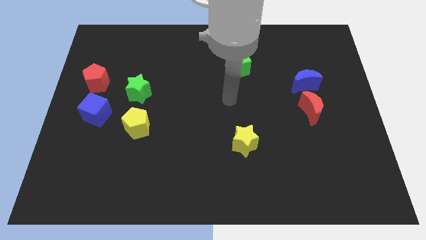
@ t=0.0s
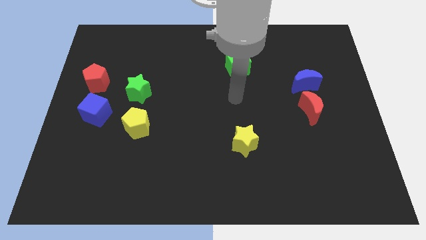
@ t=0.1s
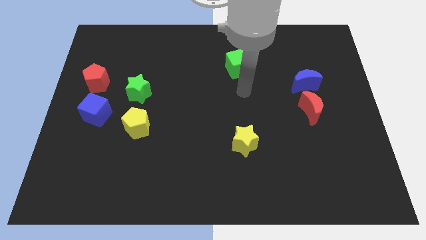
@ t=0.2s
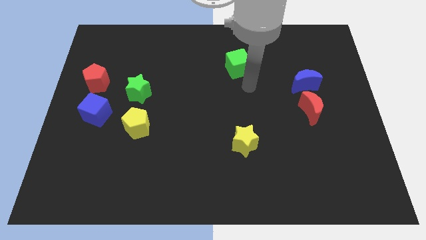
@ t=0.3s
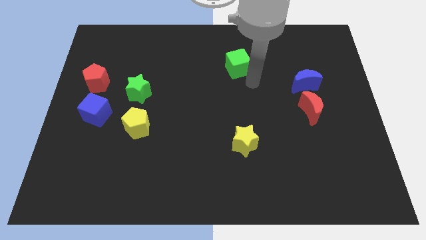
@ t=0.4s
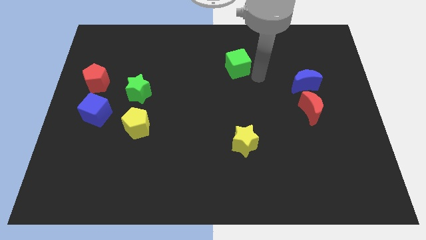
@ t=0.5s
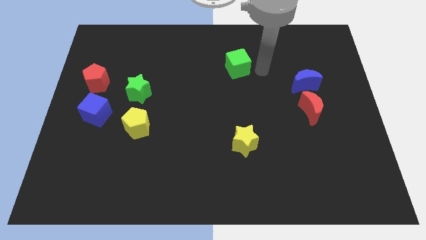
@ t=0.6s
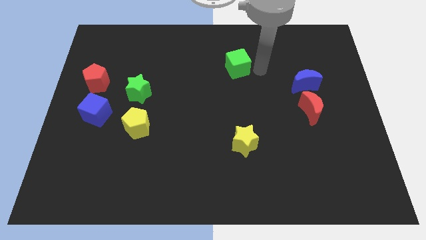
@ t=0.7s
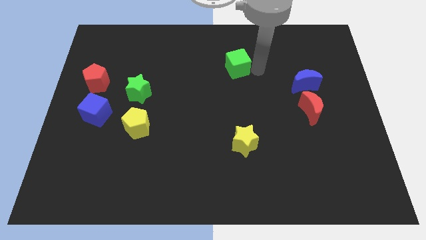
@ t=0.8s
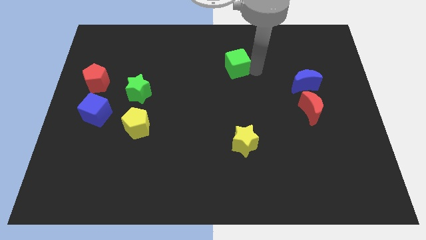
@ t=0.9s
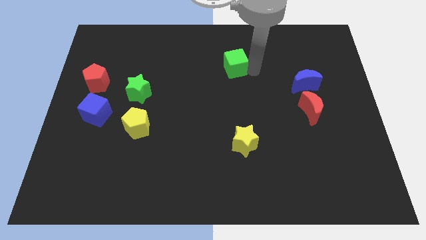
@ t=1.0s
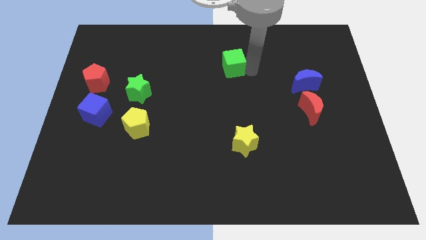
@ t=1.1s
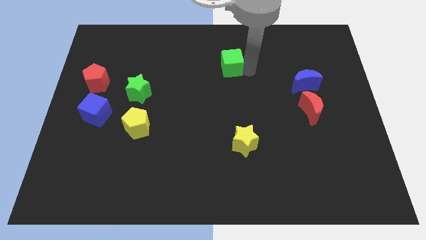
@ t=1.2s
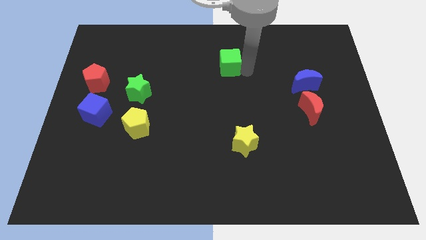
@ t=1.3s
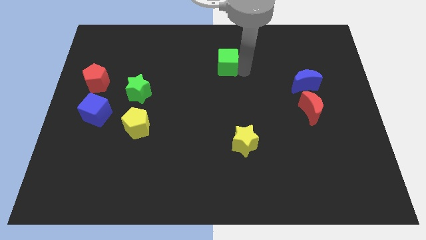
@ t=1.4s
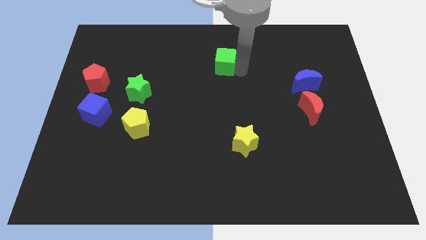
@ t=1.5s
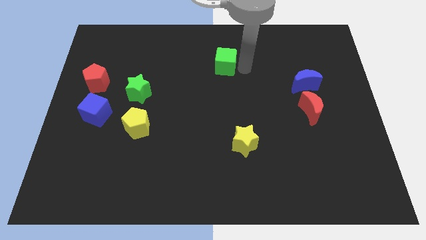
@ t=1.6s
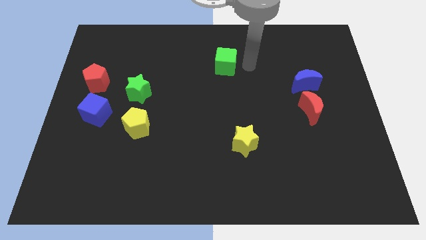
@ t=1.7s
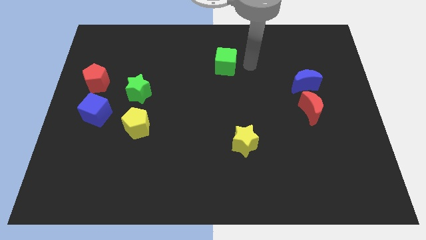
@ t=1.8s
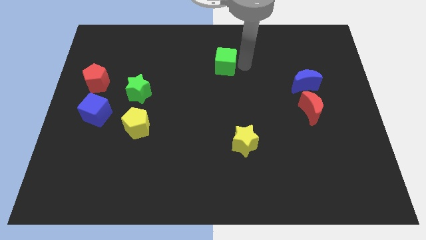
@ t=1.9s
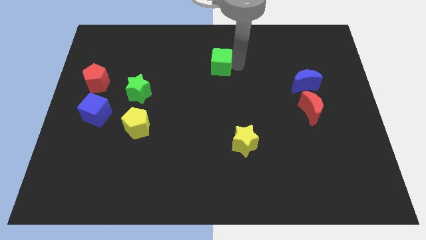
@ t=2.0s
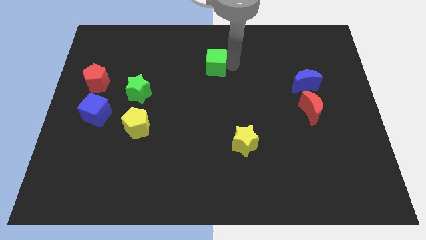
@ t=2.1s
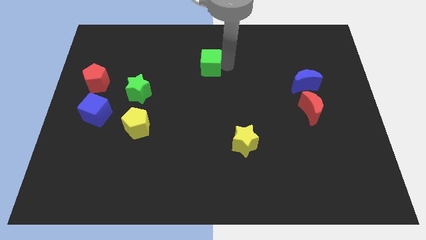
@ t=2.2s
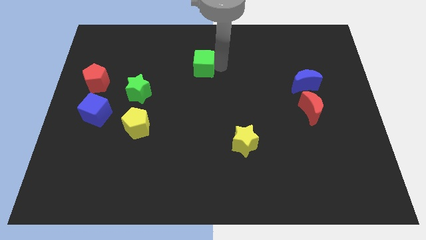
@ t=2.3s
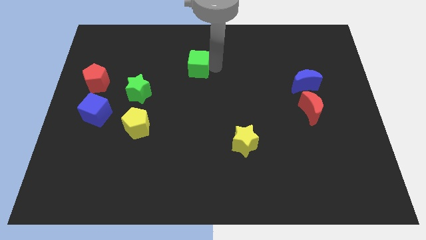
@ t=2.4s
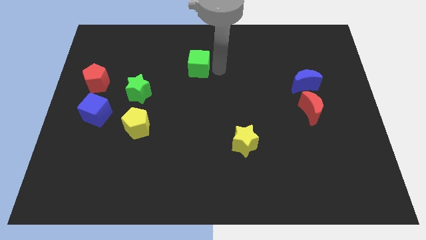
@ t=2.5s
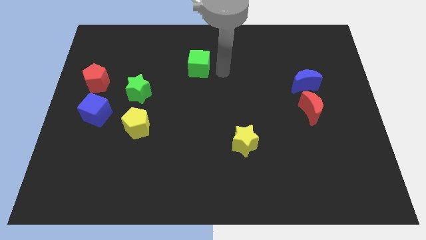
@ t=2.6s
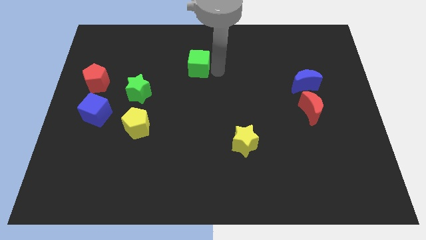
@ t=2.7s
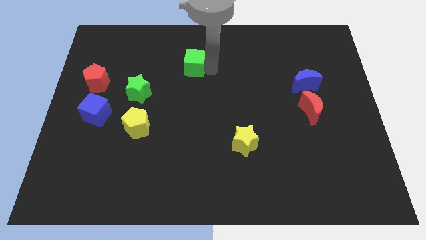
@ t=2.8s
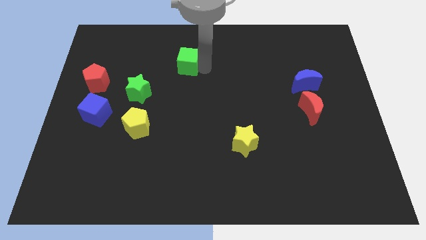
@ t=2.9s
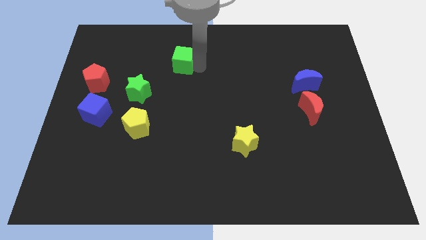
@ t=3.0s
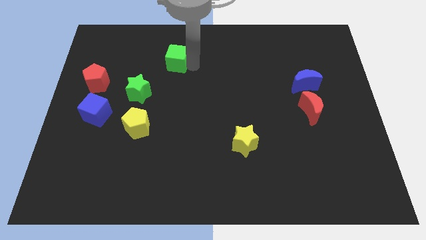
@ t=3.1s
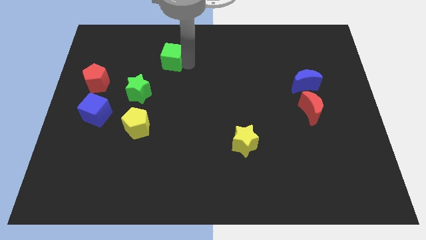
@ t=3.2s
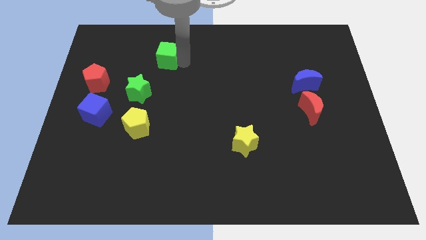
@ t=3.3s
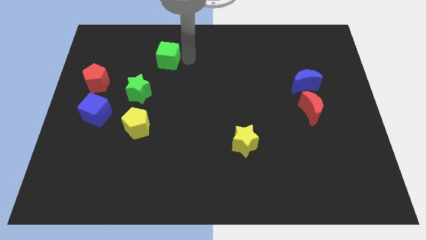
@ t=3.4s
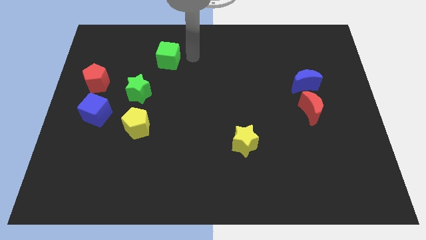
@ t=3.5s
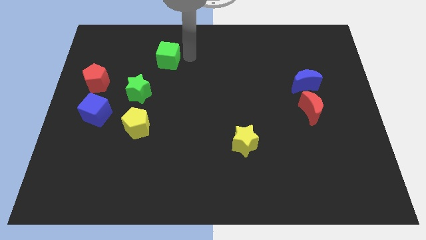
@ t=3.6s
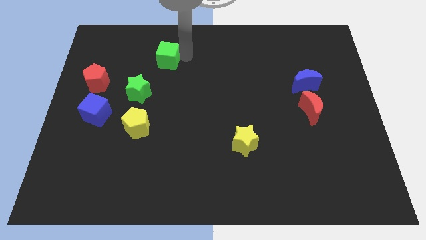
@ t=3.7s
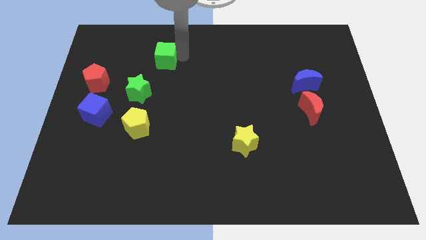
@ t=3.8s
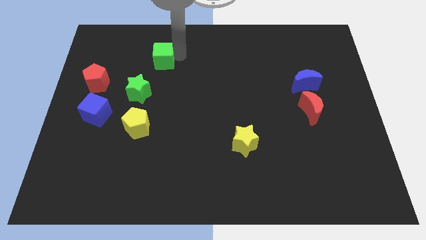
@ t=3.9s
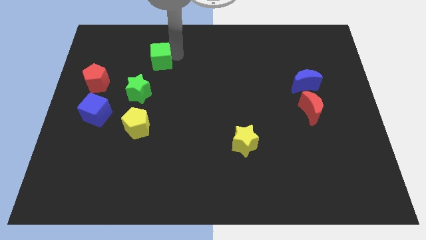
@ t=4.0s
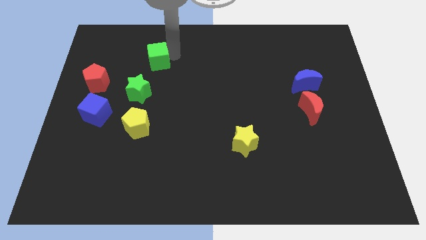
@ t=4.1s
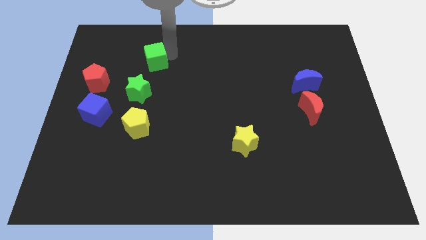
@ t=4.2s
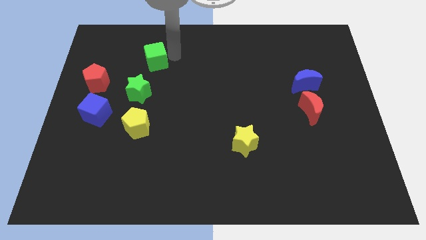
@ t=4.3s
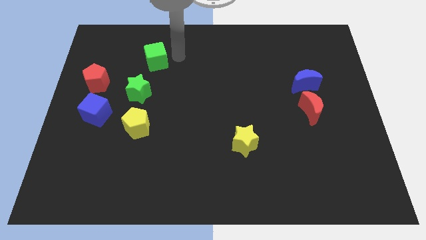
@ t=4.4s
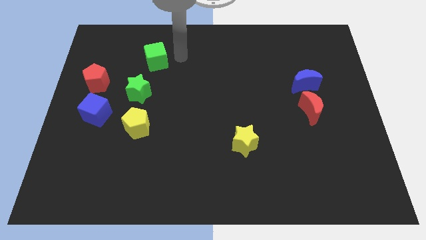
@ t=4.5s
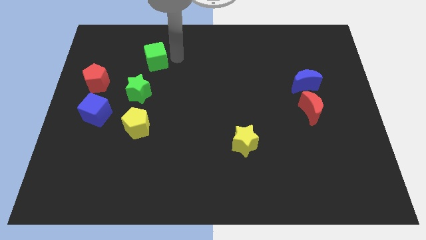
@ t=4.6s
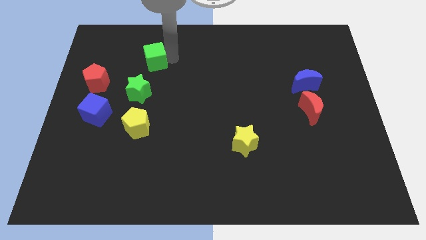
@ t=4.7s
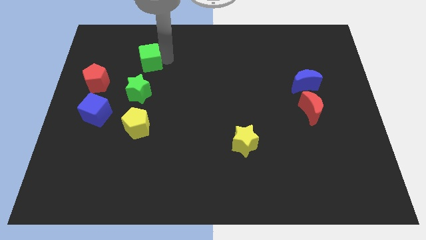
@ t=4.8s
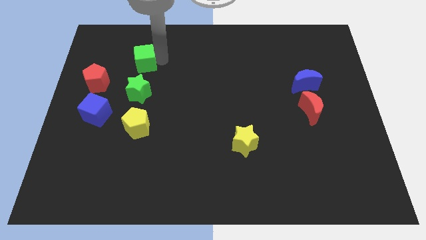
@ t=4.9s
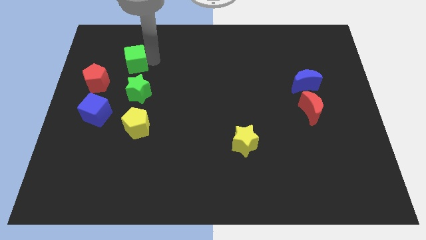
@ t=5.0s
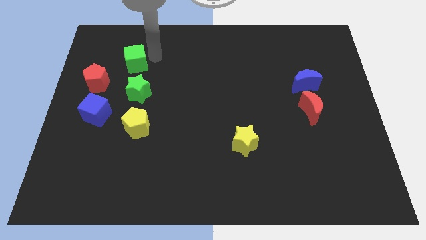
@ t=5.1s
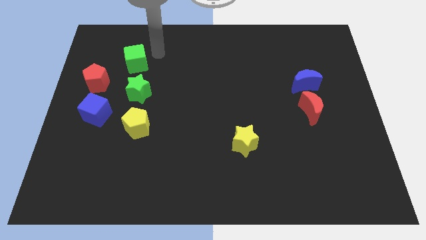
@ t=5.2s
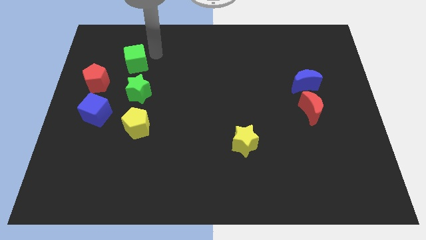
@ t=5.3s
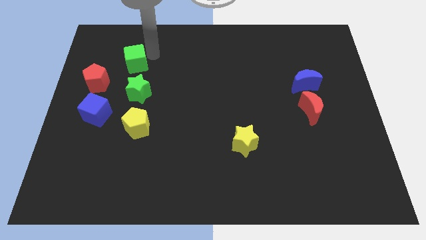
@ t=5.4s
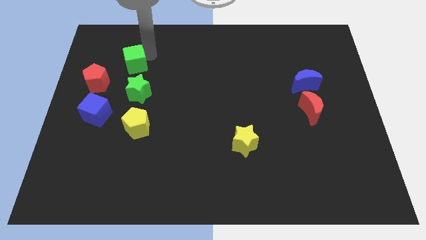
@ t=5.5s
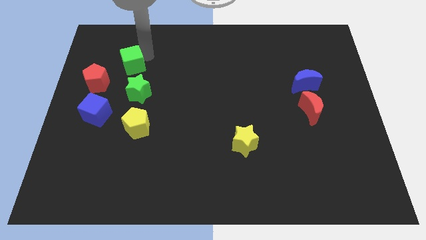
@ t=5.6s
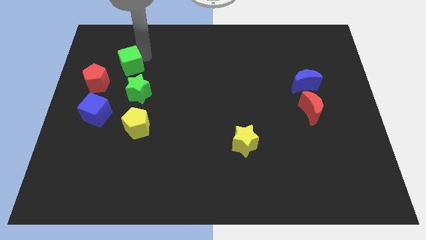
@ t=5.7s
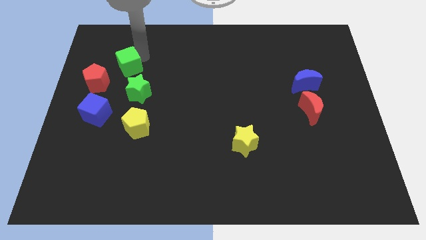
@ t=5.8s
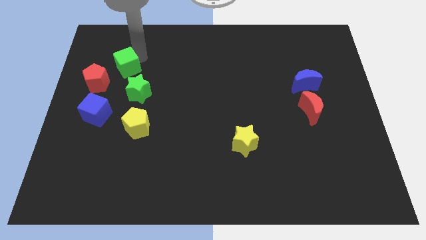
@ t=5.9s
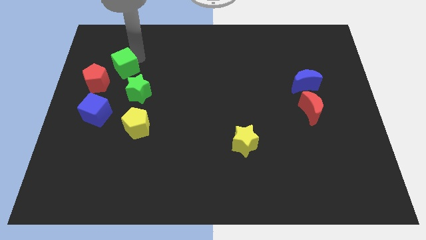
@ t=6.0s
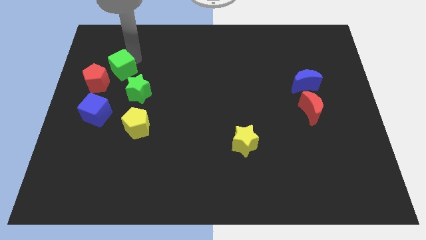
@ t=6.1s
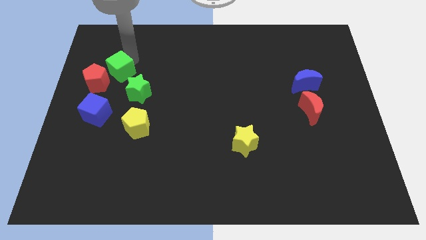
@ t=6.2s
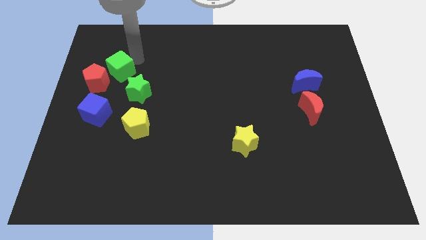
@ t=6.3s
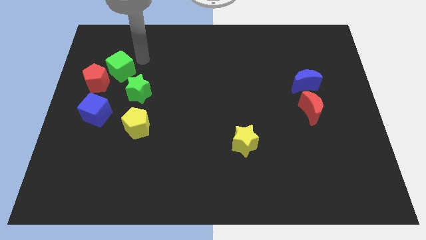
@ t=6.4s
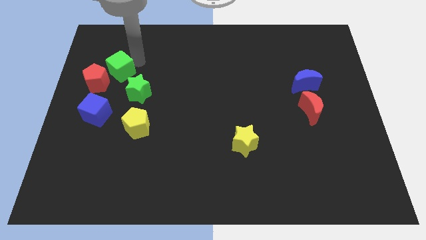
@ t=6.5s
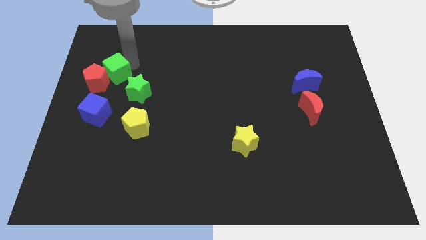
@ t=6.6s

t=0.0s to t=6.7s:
push the green cube towards the red pentagon
